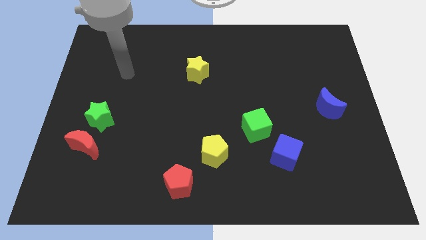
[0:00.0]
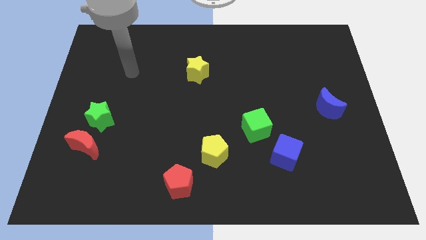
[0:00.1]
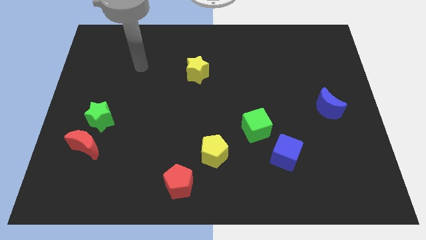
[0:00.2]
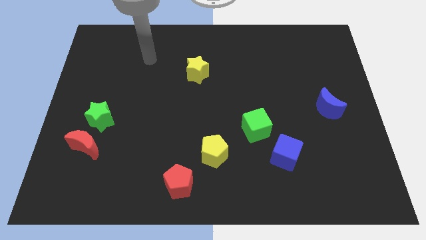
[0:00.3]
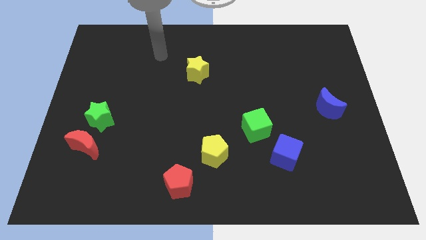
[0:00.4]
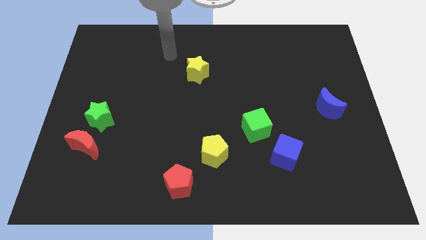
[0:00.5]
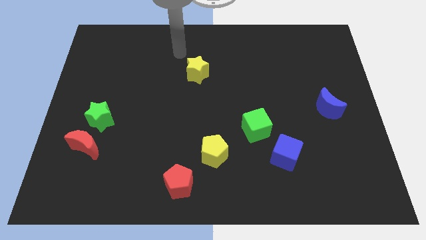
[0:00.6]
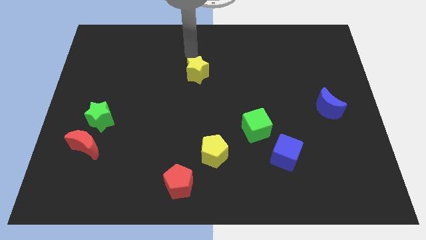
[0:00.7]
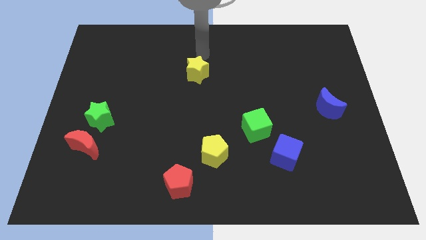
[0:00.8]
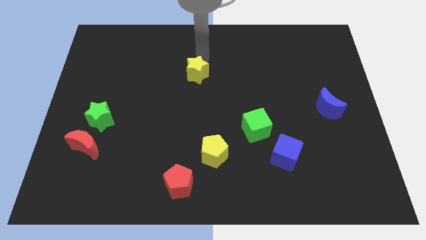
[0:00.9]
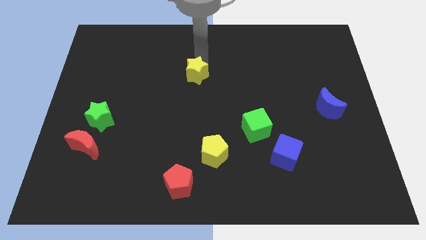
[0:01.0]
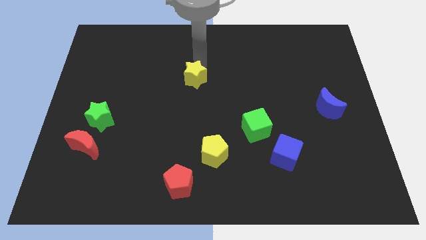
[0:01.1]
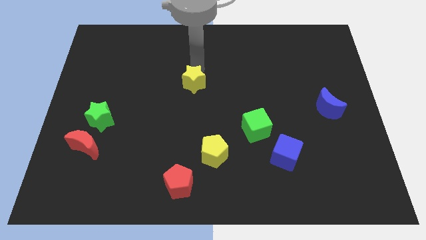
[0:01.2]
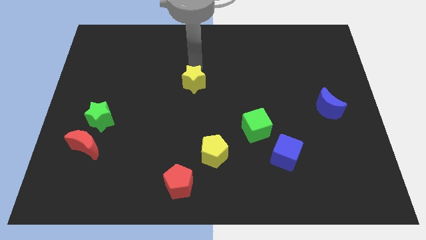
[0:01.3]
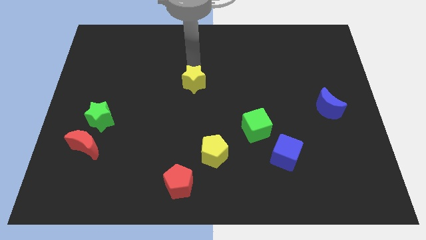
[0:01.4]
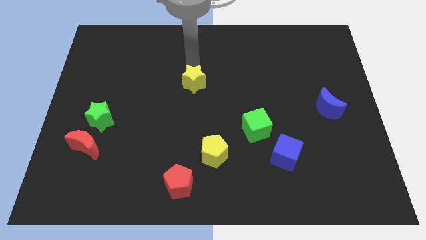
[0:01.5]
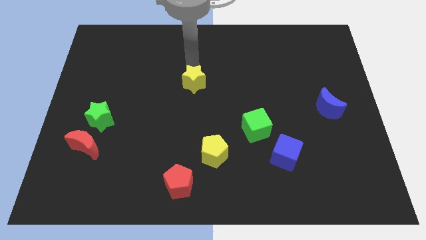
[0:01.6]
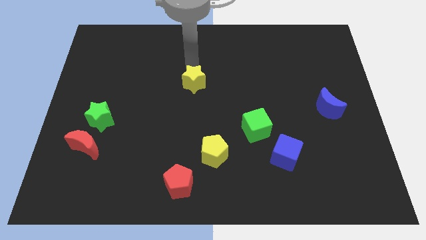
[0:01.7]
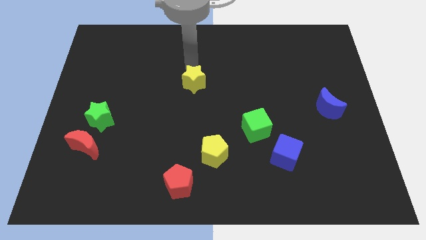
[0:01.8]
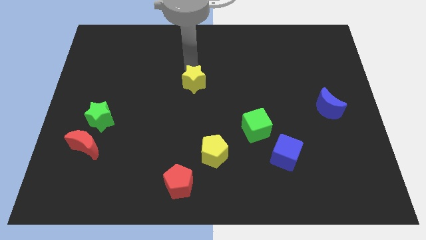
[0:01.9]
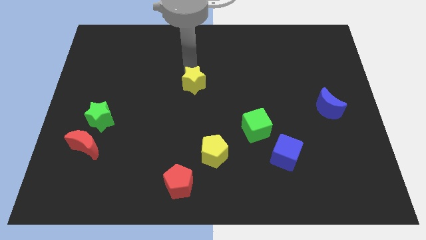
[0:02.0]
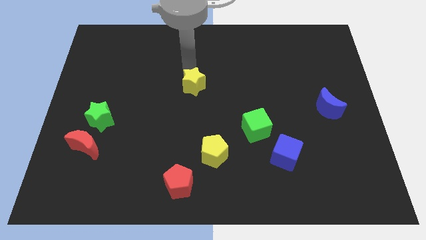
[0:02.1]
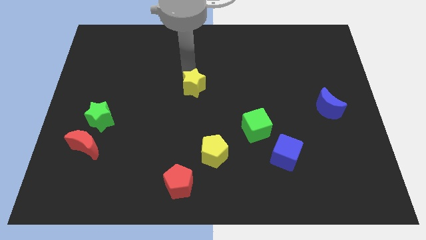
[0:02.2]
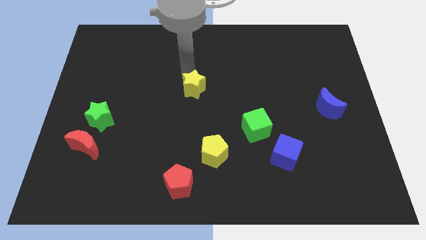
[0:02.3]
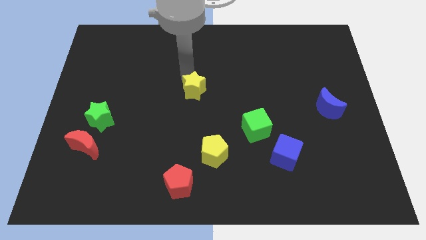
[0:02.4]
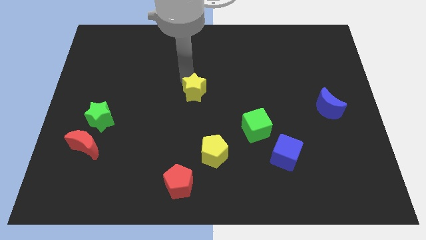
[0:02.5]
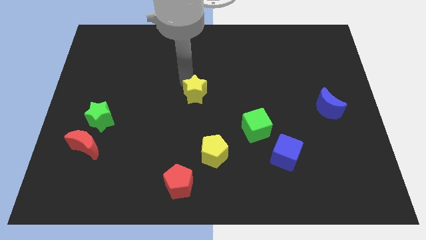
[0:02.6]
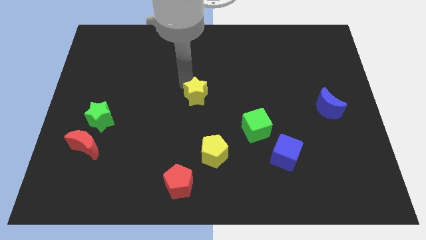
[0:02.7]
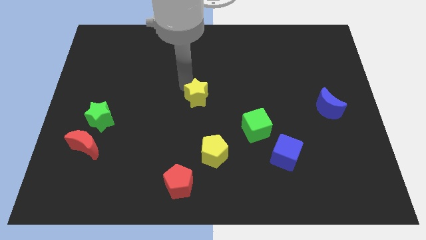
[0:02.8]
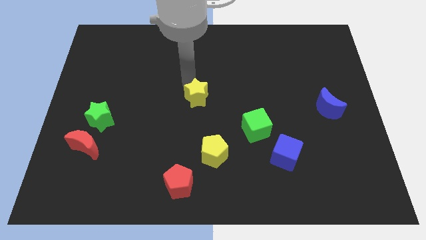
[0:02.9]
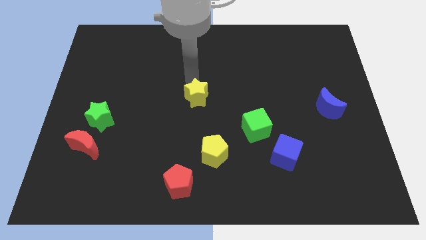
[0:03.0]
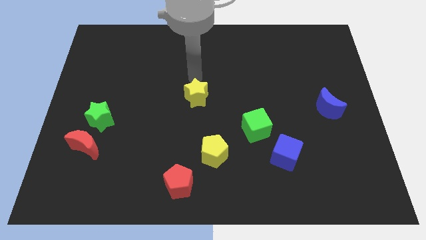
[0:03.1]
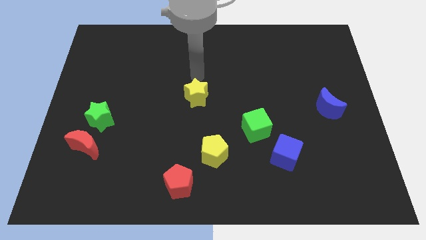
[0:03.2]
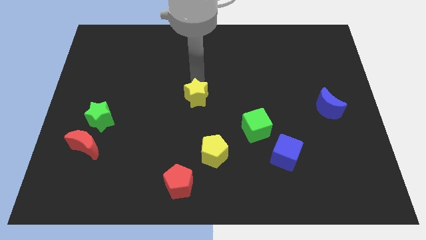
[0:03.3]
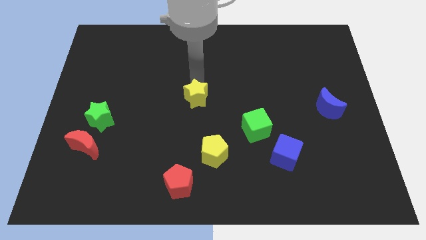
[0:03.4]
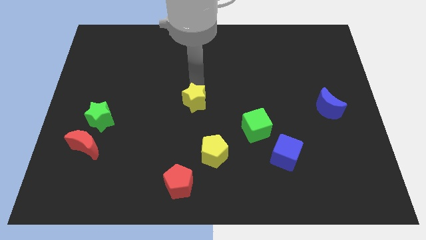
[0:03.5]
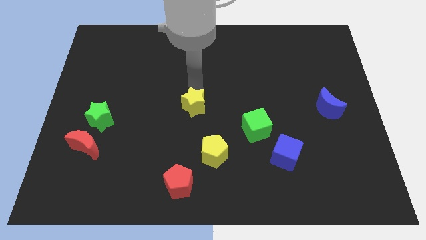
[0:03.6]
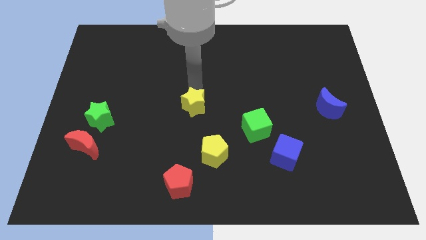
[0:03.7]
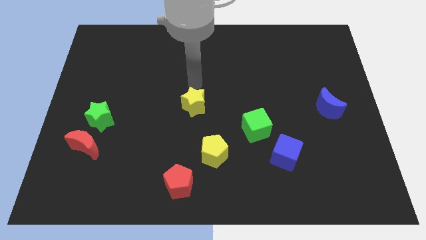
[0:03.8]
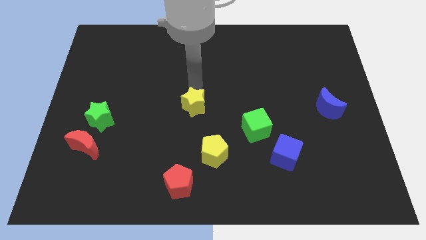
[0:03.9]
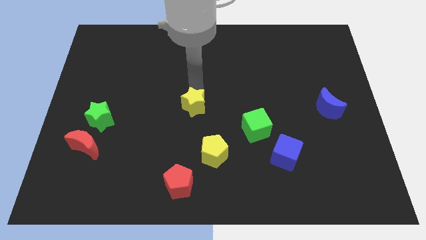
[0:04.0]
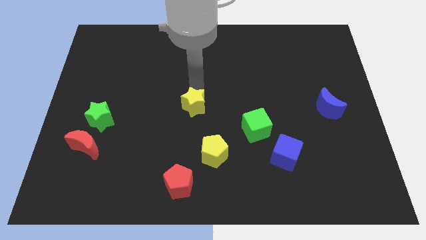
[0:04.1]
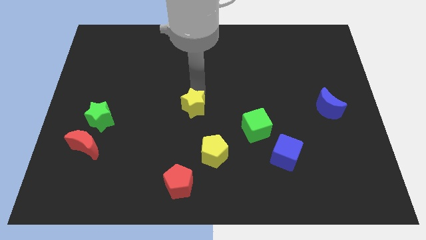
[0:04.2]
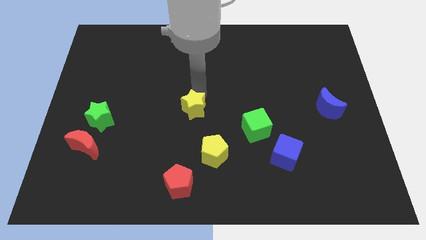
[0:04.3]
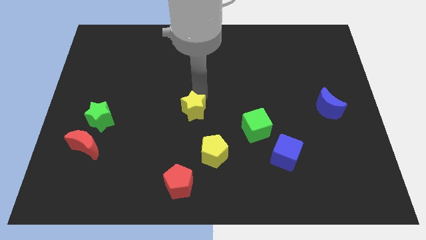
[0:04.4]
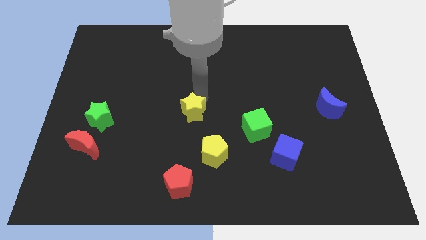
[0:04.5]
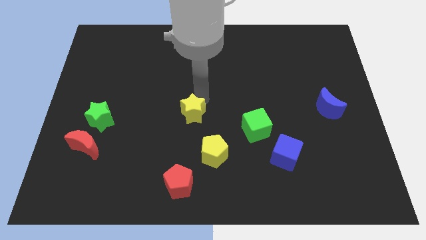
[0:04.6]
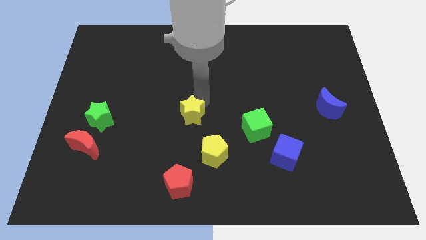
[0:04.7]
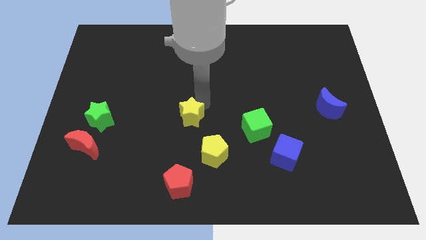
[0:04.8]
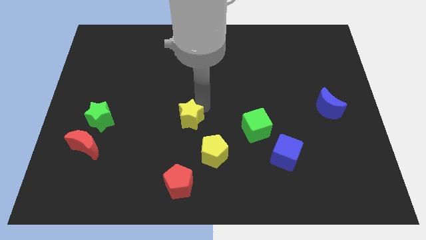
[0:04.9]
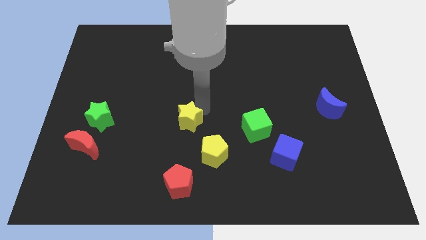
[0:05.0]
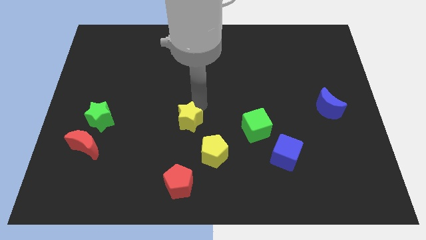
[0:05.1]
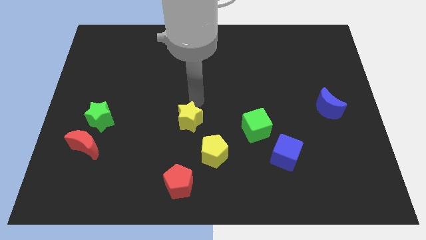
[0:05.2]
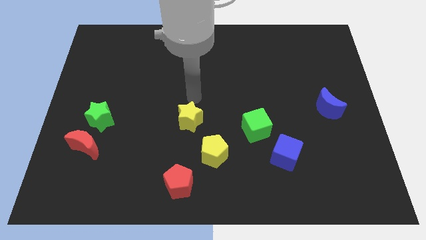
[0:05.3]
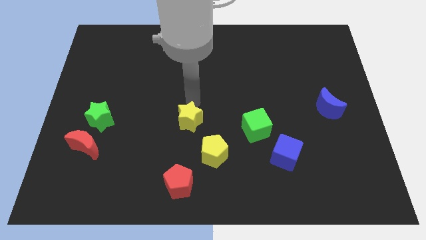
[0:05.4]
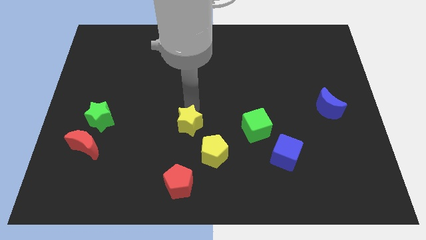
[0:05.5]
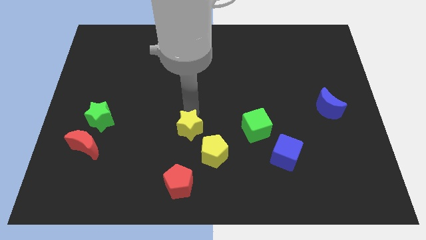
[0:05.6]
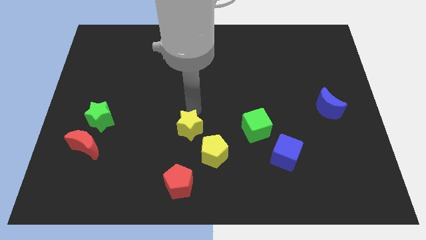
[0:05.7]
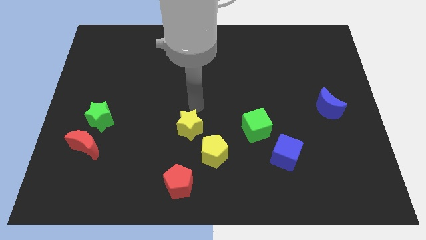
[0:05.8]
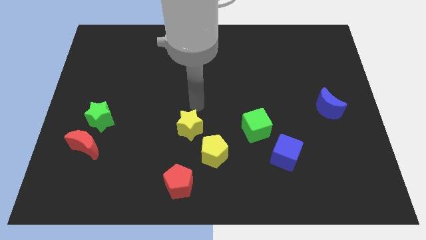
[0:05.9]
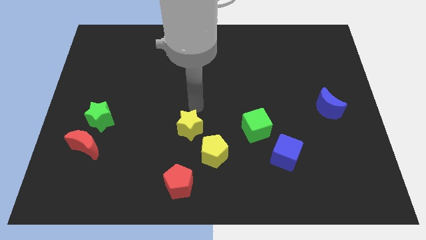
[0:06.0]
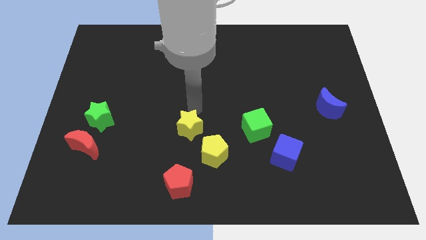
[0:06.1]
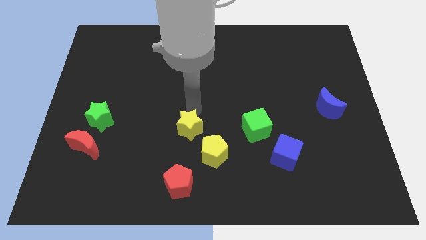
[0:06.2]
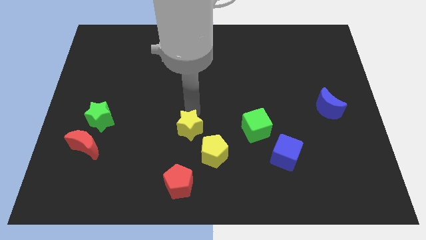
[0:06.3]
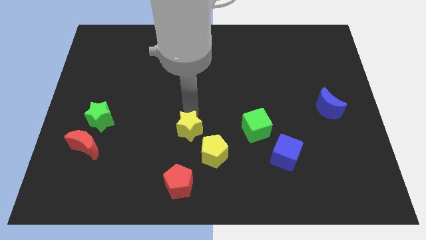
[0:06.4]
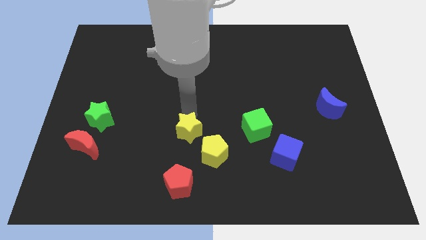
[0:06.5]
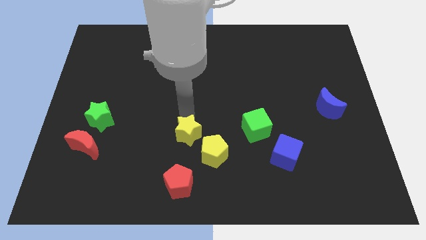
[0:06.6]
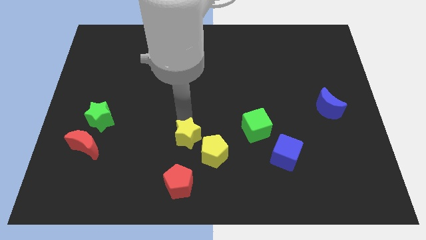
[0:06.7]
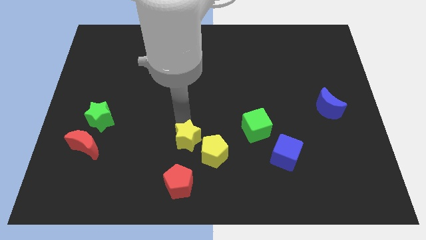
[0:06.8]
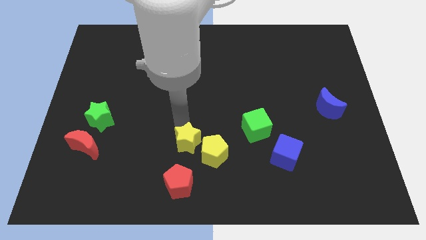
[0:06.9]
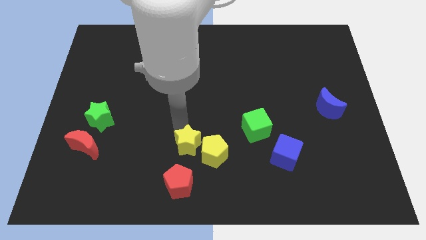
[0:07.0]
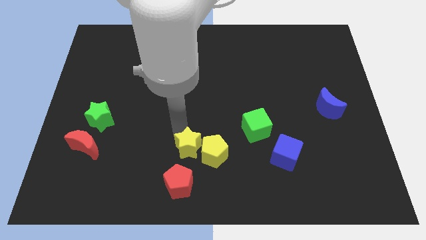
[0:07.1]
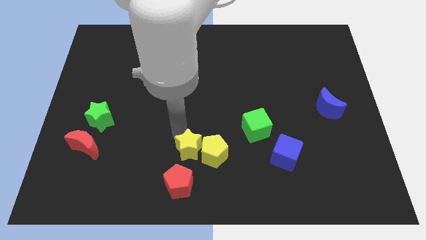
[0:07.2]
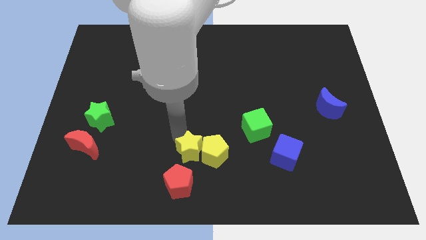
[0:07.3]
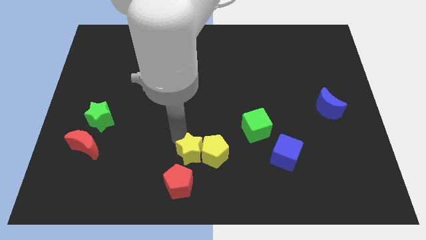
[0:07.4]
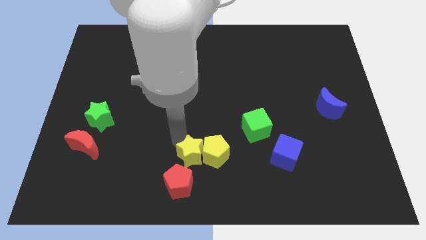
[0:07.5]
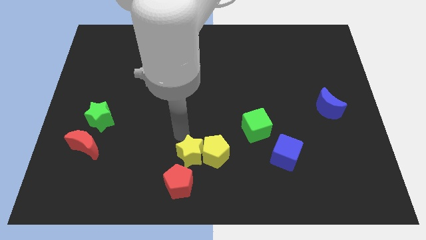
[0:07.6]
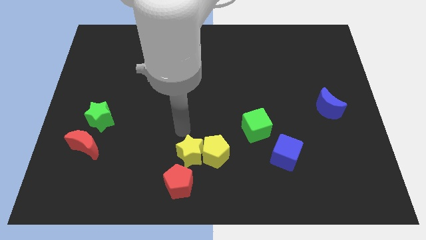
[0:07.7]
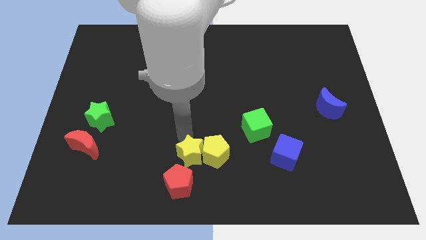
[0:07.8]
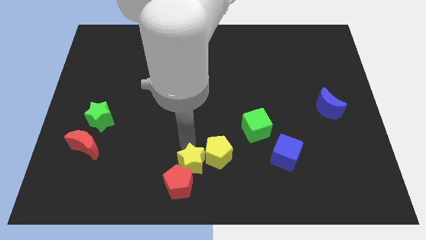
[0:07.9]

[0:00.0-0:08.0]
push the yellow star to the bottom
